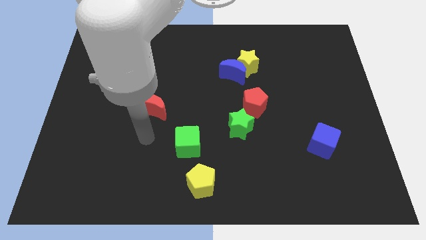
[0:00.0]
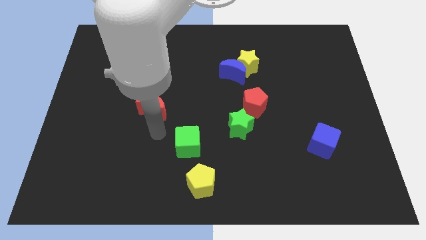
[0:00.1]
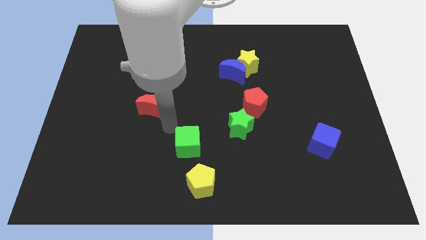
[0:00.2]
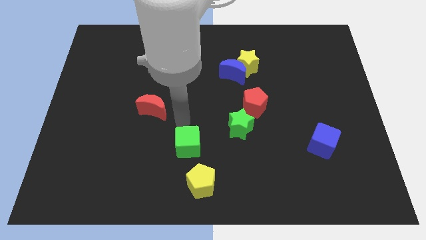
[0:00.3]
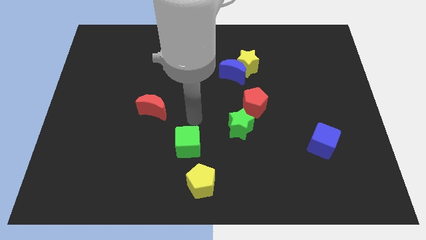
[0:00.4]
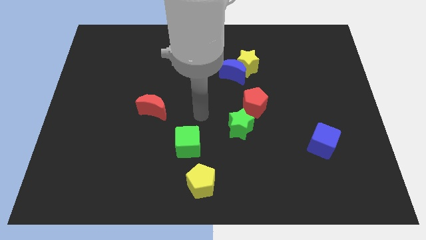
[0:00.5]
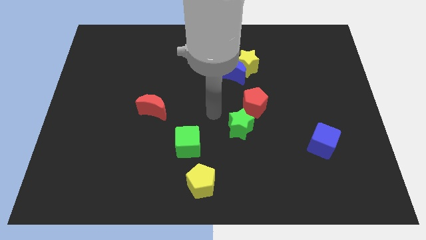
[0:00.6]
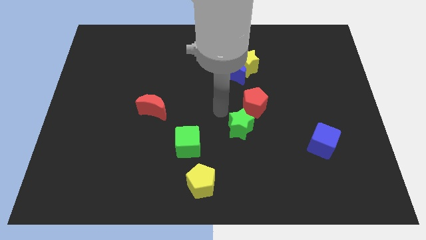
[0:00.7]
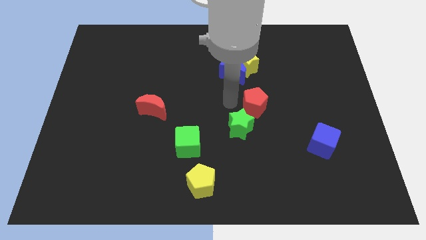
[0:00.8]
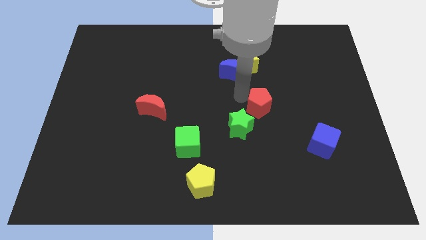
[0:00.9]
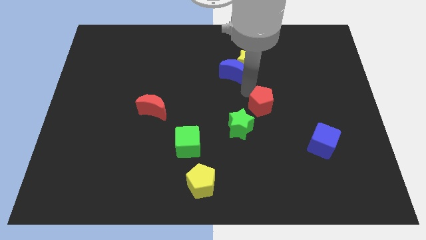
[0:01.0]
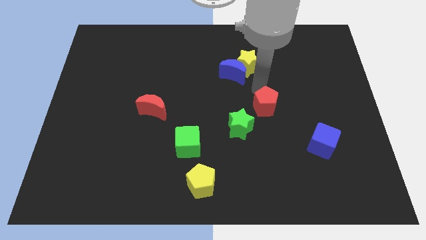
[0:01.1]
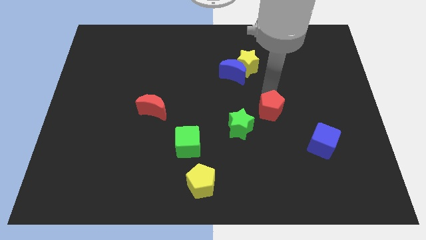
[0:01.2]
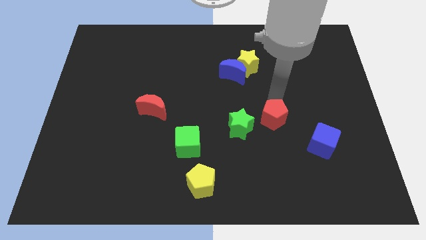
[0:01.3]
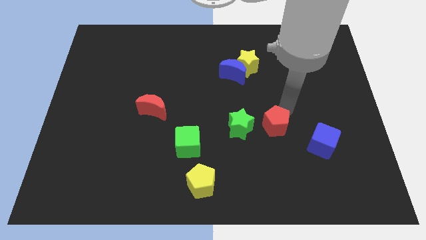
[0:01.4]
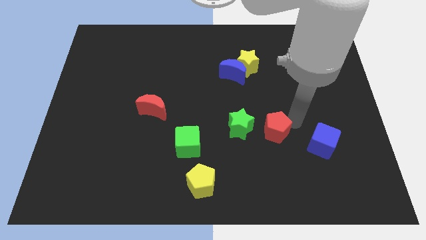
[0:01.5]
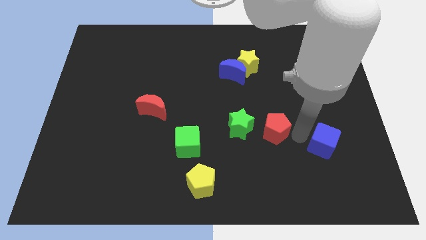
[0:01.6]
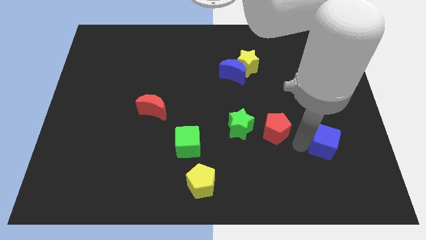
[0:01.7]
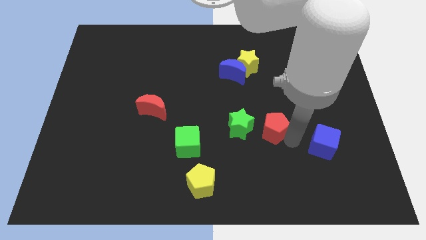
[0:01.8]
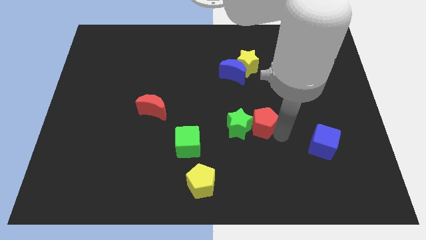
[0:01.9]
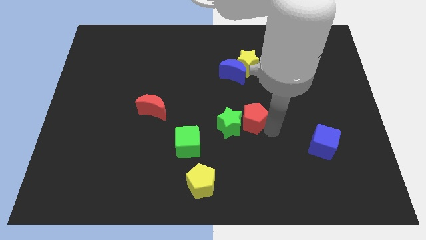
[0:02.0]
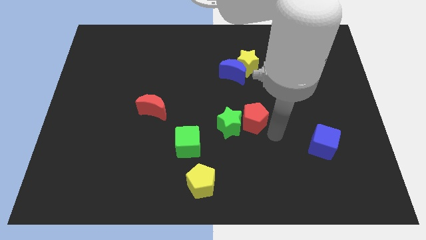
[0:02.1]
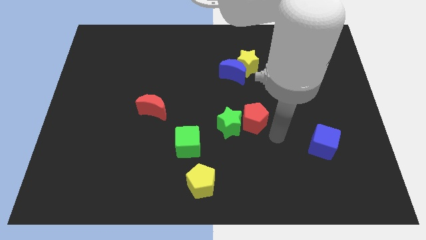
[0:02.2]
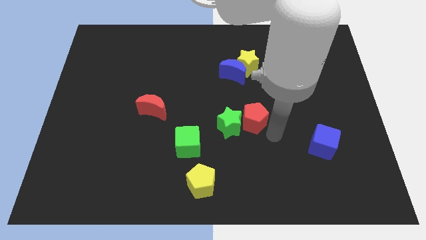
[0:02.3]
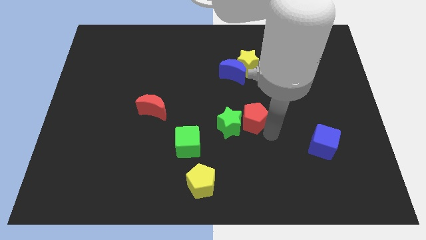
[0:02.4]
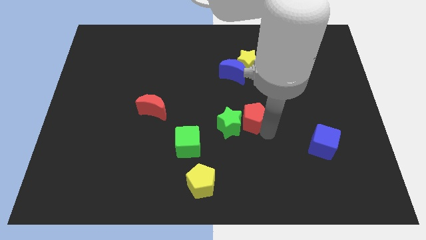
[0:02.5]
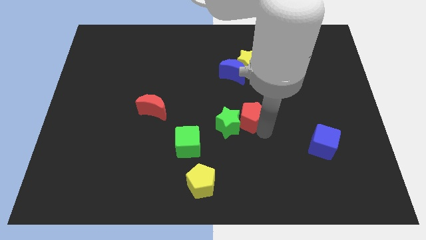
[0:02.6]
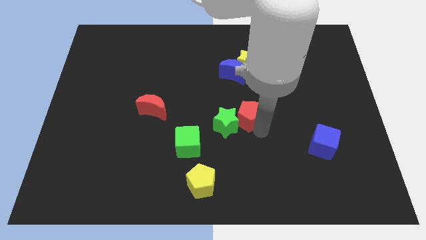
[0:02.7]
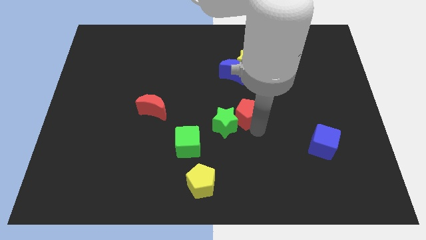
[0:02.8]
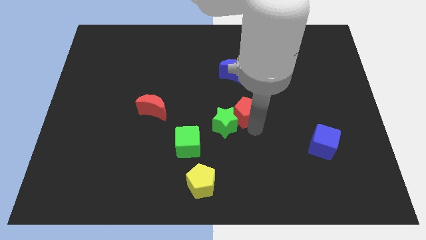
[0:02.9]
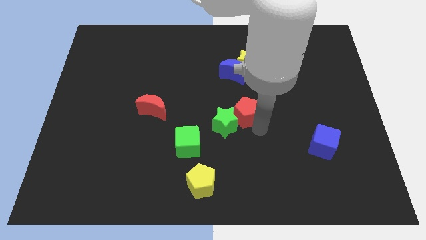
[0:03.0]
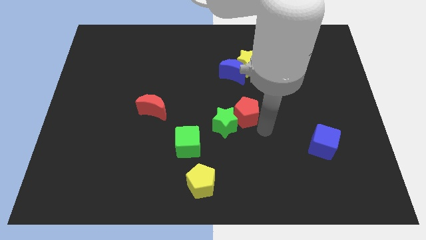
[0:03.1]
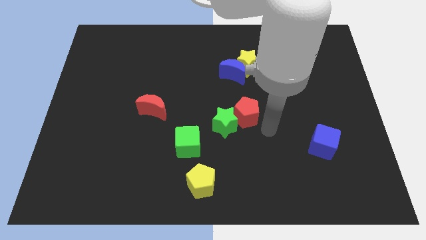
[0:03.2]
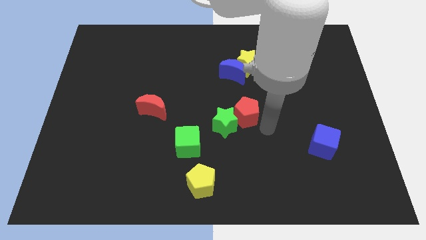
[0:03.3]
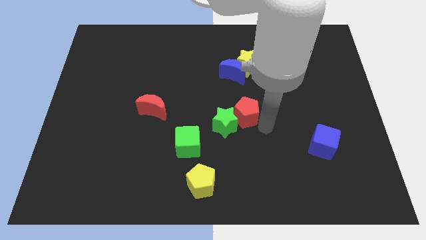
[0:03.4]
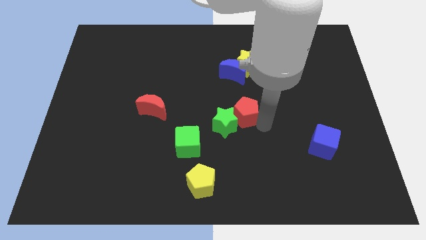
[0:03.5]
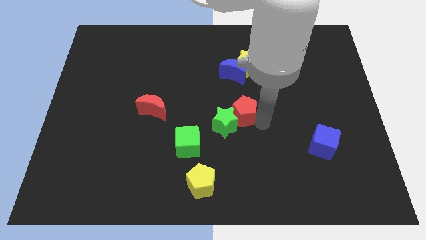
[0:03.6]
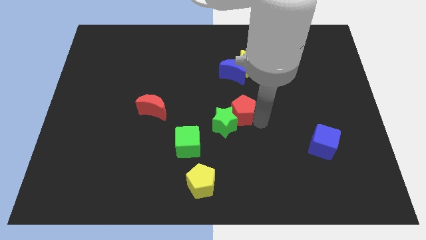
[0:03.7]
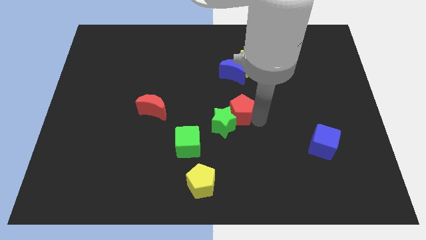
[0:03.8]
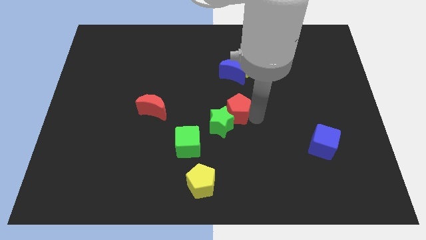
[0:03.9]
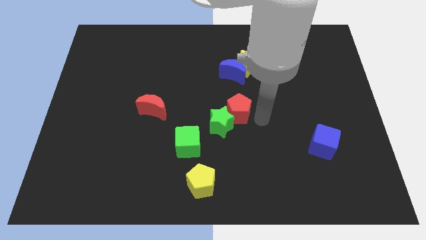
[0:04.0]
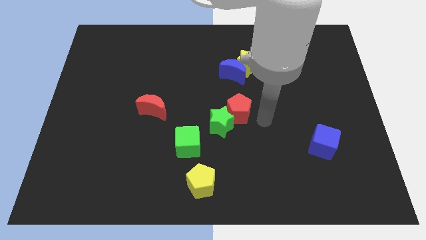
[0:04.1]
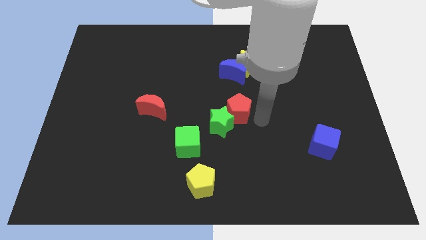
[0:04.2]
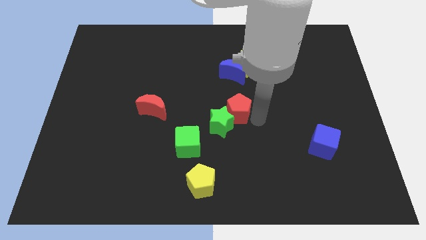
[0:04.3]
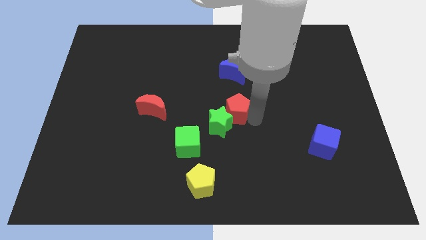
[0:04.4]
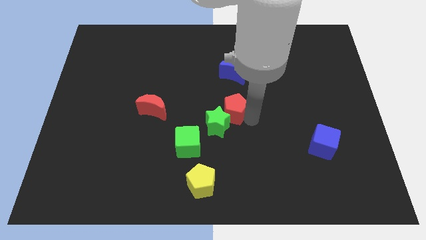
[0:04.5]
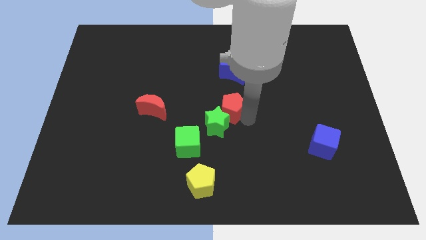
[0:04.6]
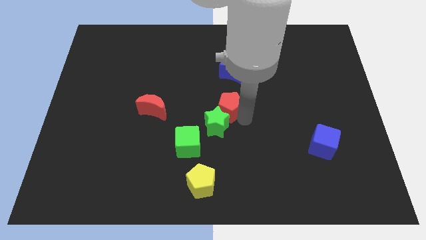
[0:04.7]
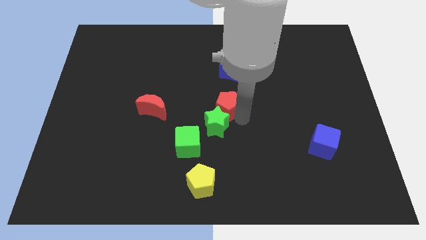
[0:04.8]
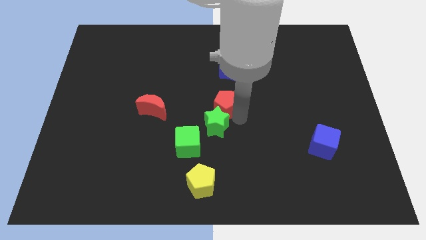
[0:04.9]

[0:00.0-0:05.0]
push the red pentagon left a bit

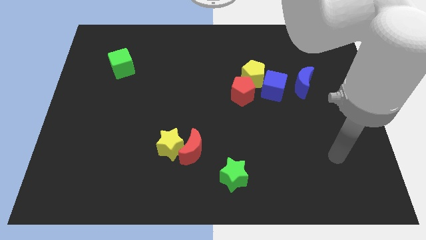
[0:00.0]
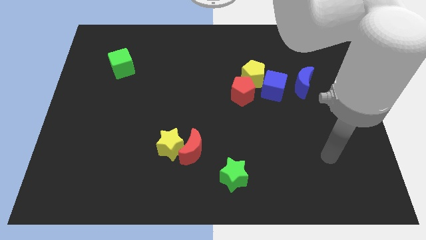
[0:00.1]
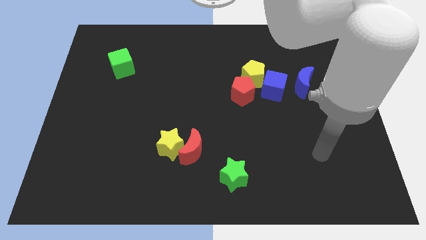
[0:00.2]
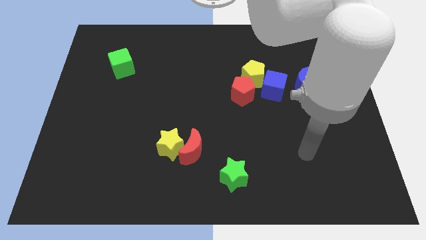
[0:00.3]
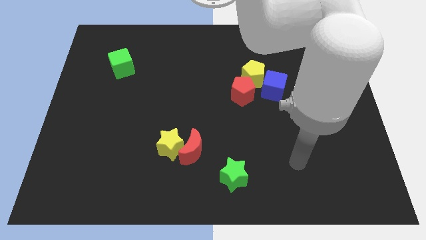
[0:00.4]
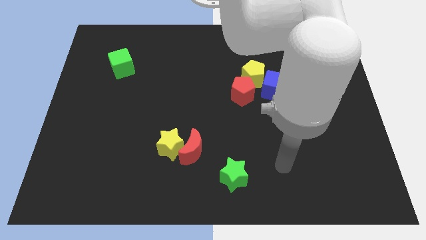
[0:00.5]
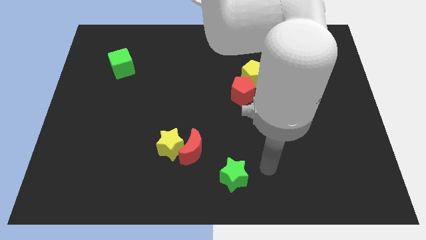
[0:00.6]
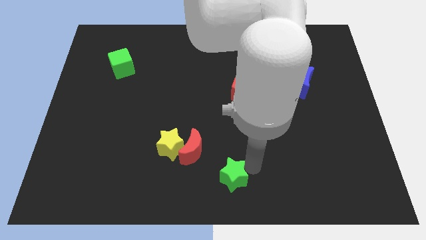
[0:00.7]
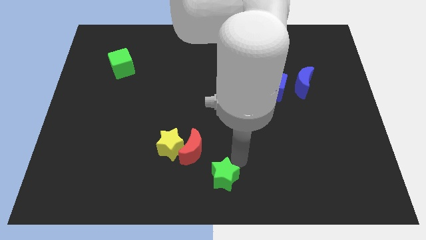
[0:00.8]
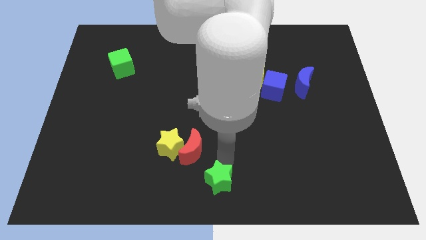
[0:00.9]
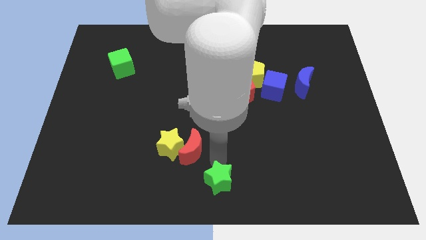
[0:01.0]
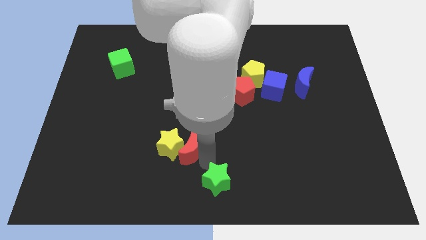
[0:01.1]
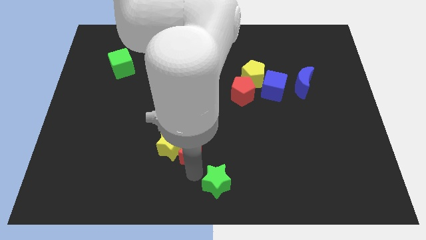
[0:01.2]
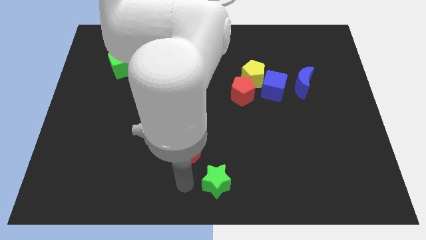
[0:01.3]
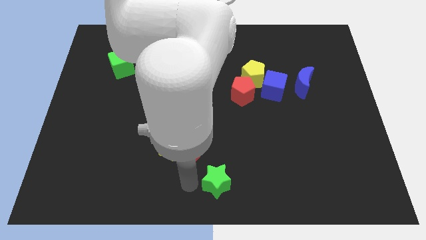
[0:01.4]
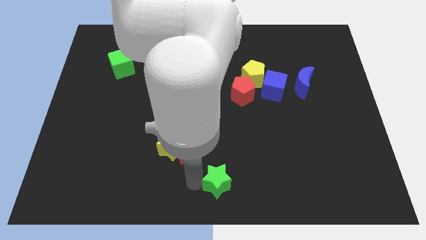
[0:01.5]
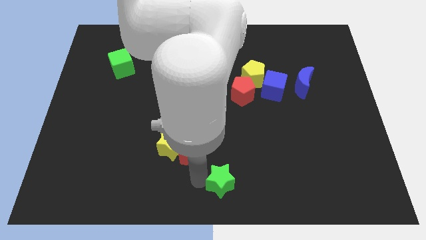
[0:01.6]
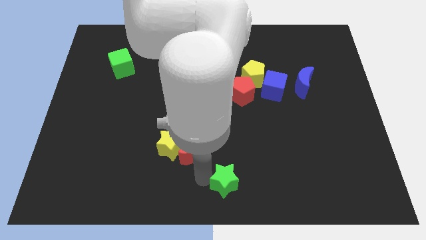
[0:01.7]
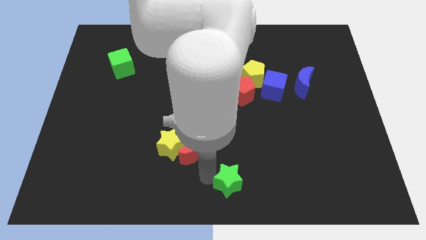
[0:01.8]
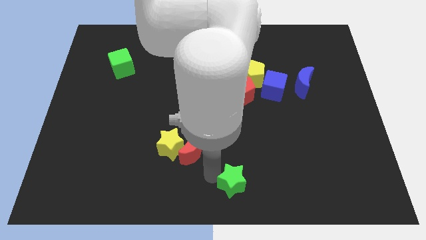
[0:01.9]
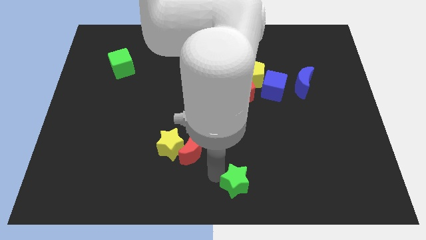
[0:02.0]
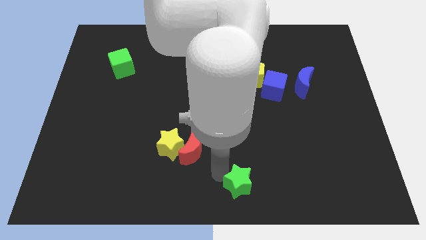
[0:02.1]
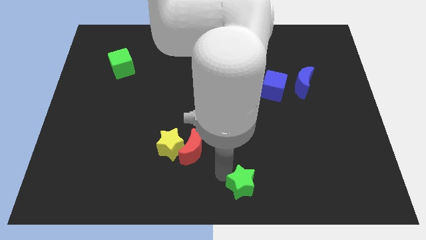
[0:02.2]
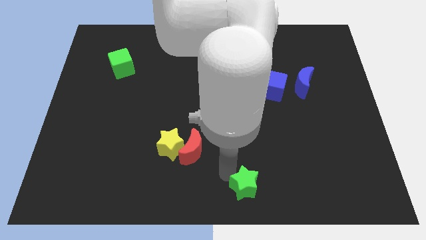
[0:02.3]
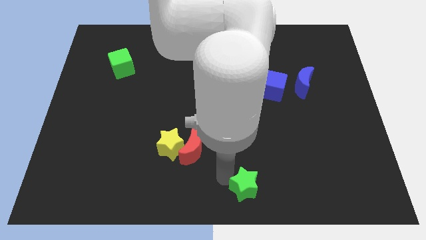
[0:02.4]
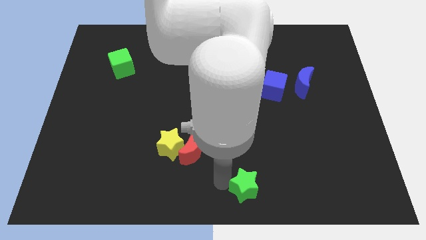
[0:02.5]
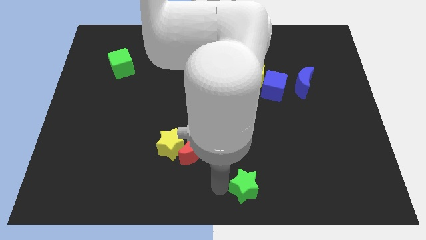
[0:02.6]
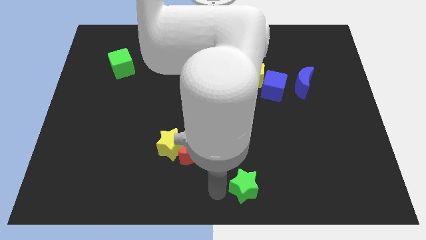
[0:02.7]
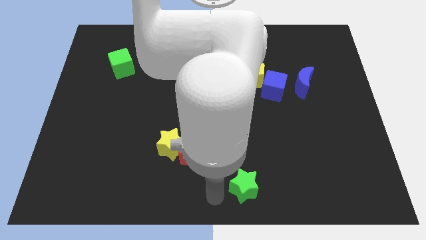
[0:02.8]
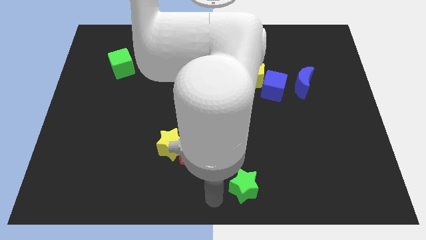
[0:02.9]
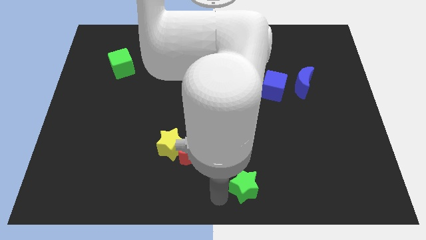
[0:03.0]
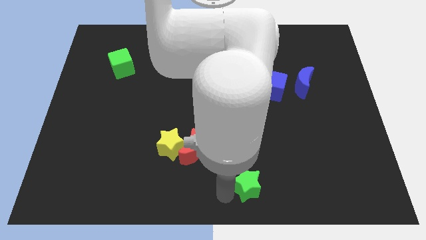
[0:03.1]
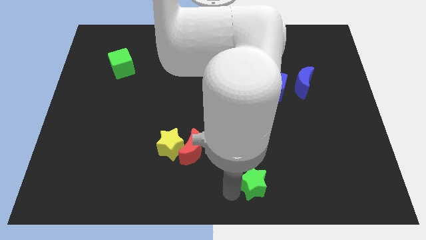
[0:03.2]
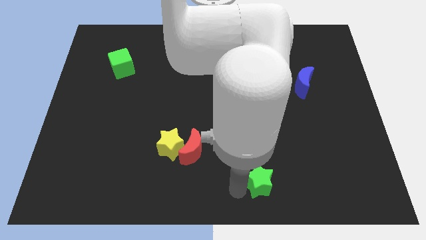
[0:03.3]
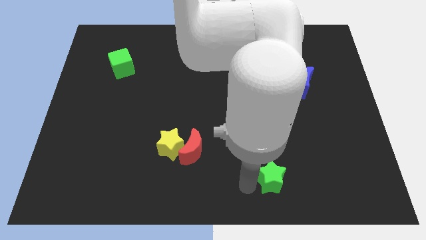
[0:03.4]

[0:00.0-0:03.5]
push the green star a bit to the right
